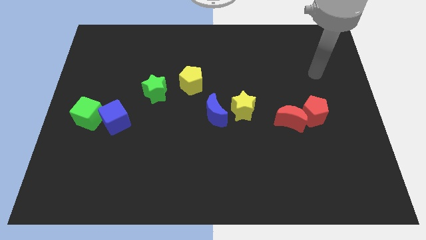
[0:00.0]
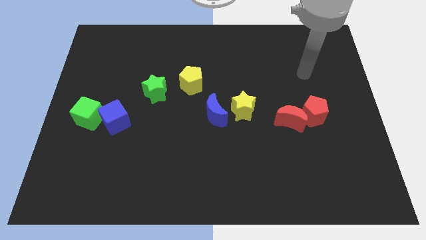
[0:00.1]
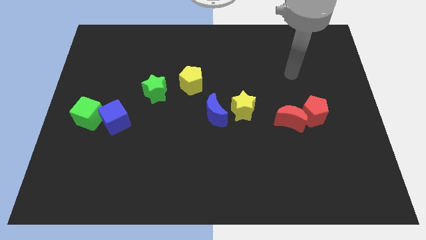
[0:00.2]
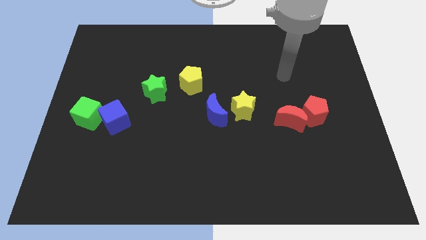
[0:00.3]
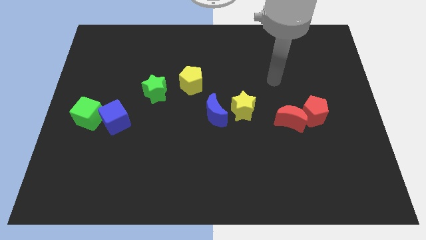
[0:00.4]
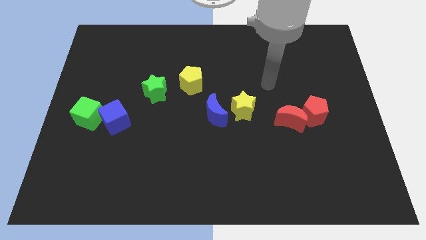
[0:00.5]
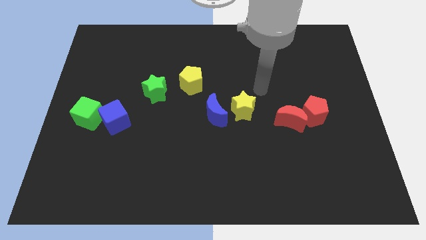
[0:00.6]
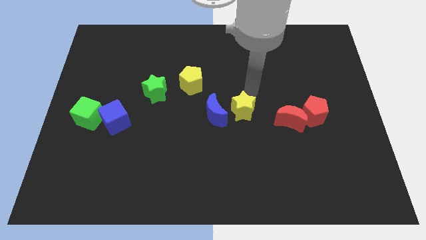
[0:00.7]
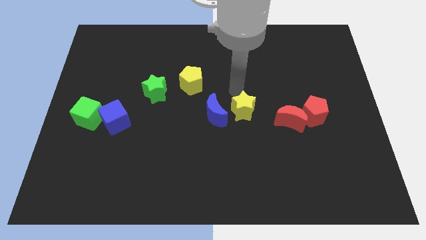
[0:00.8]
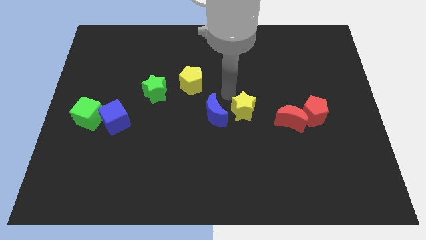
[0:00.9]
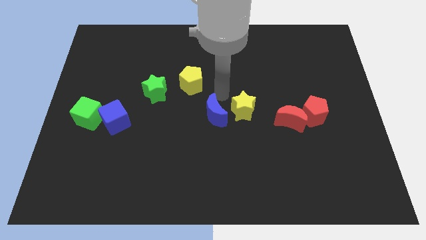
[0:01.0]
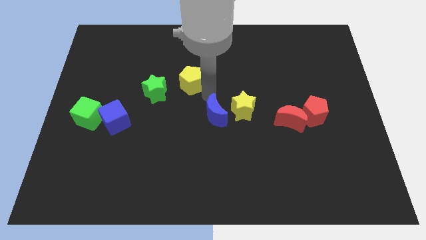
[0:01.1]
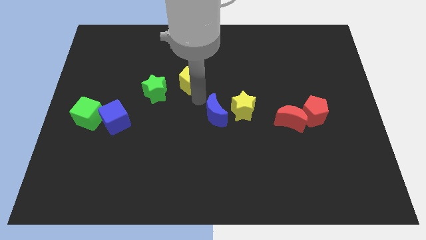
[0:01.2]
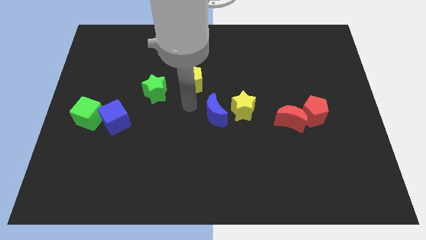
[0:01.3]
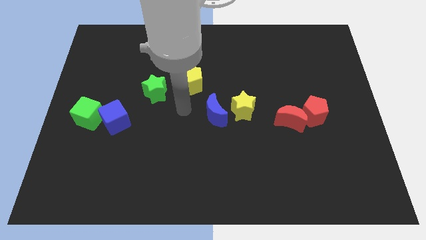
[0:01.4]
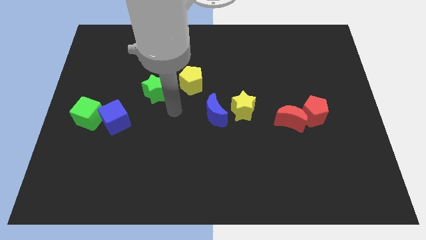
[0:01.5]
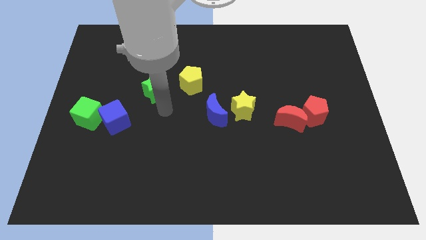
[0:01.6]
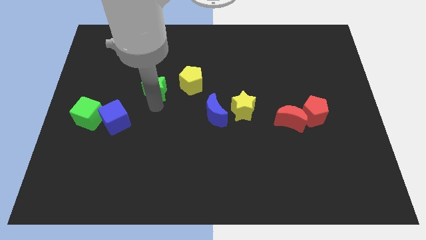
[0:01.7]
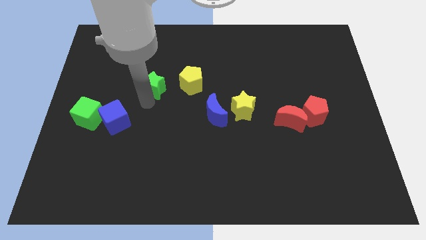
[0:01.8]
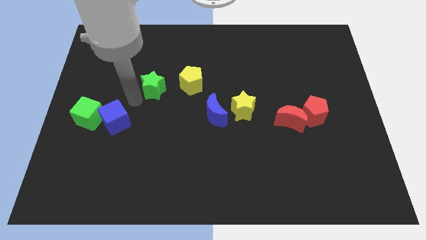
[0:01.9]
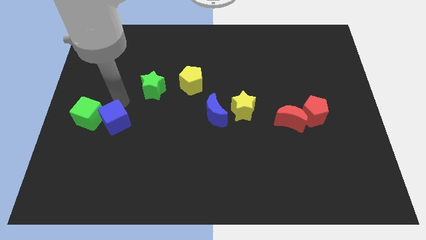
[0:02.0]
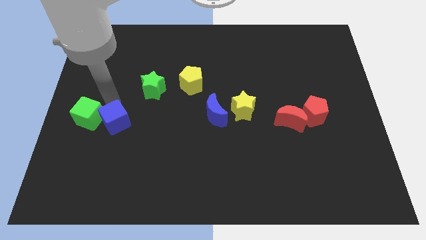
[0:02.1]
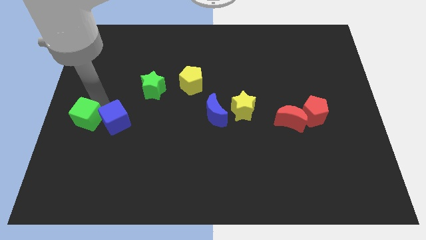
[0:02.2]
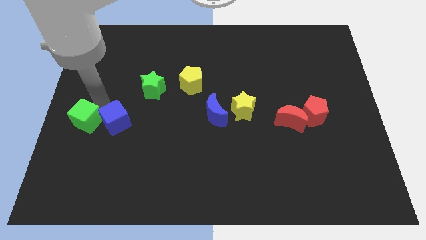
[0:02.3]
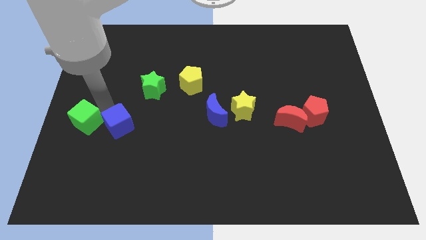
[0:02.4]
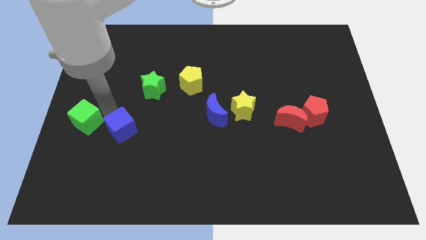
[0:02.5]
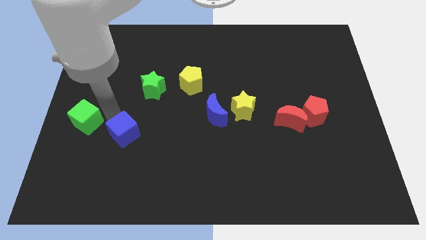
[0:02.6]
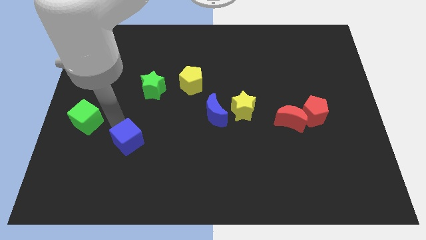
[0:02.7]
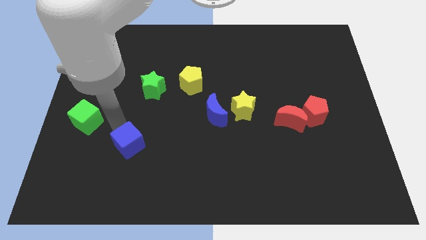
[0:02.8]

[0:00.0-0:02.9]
slightly slide the blue cube diagonally downwards and right

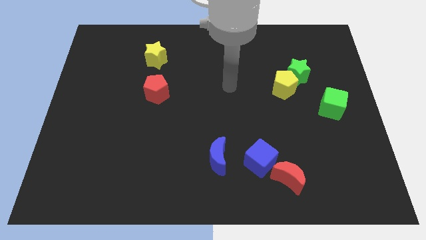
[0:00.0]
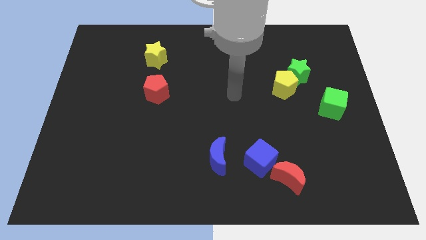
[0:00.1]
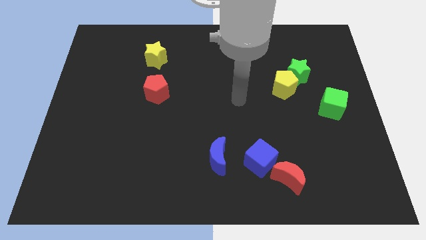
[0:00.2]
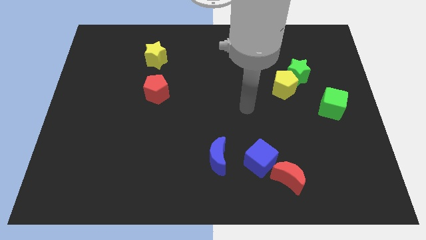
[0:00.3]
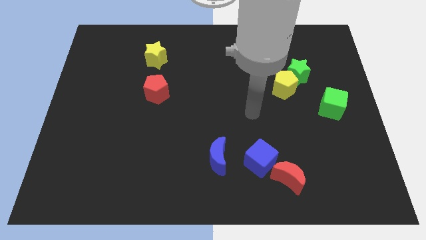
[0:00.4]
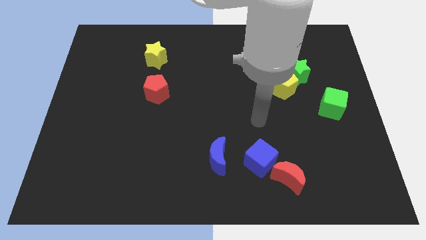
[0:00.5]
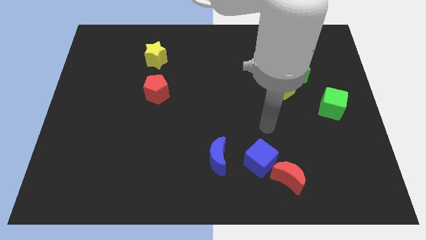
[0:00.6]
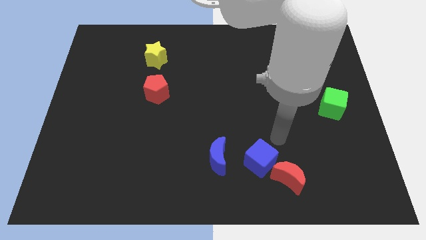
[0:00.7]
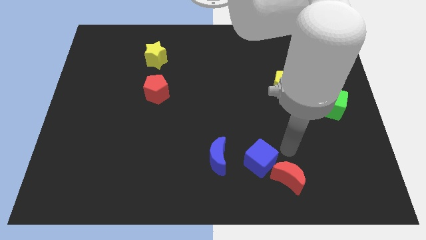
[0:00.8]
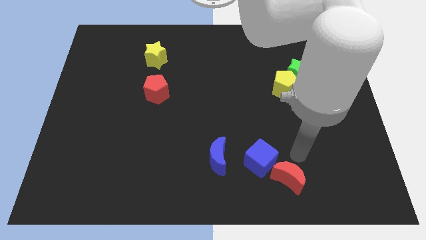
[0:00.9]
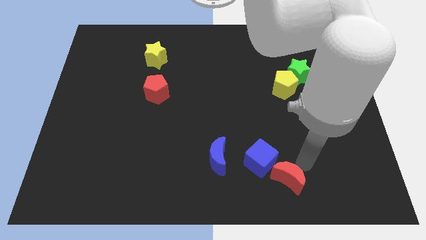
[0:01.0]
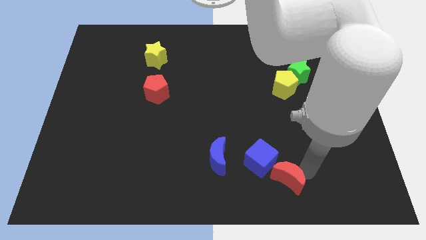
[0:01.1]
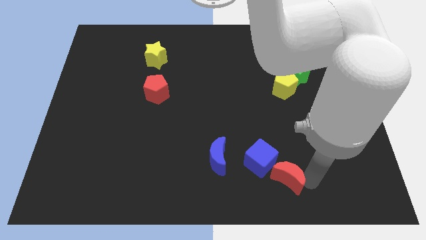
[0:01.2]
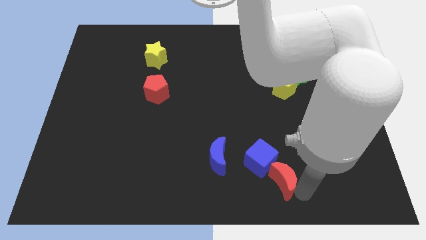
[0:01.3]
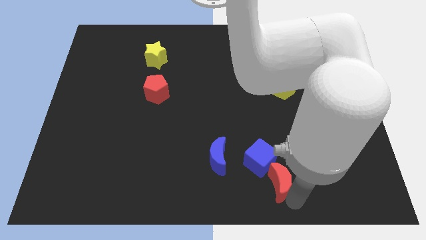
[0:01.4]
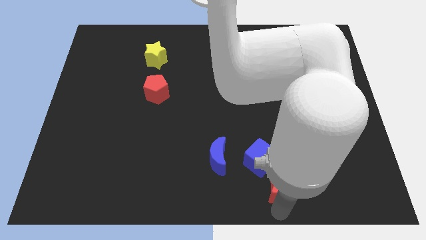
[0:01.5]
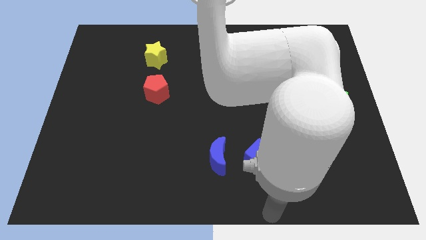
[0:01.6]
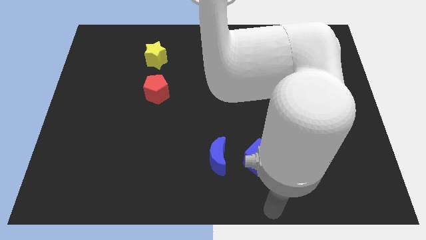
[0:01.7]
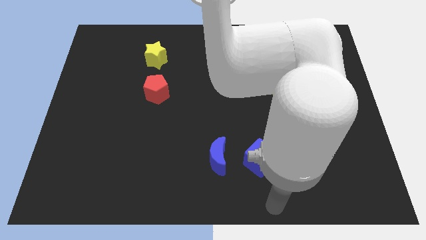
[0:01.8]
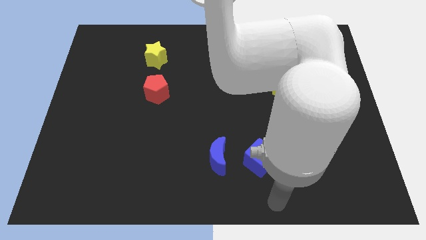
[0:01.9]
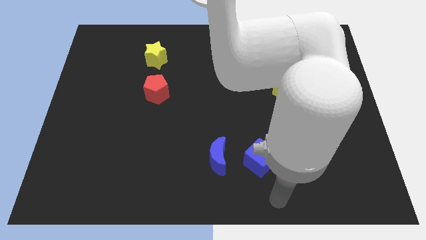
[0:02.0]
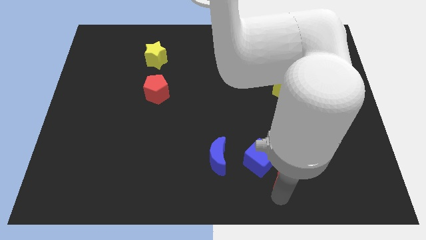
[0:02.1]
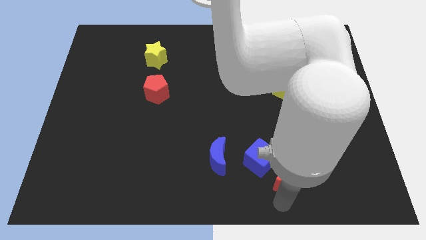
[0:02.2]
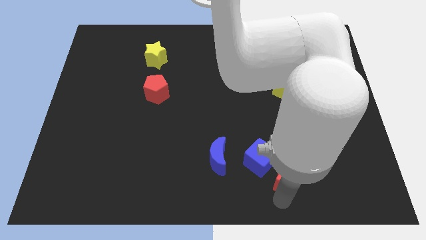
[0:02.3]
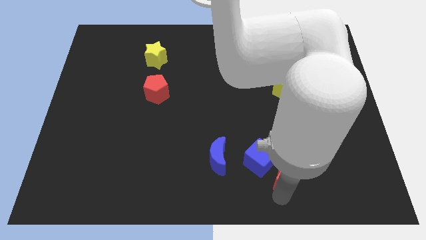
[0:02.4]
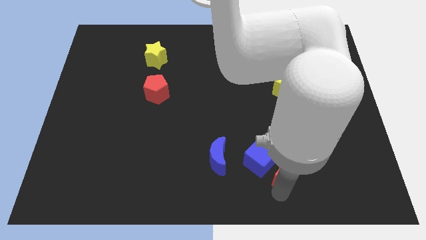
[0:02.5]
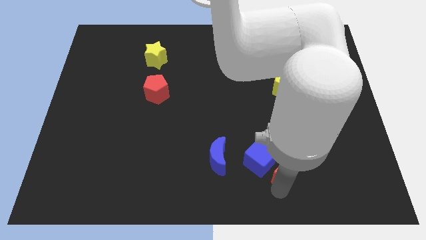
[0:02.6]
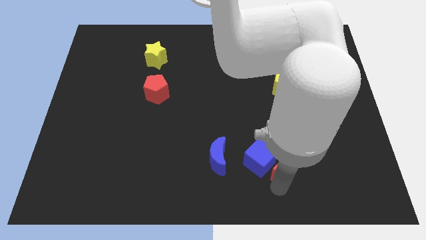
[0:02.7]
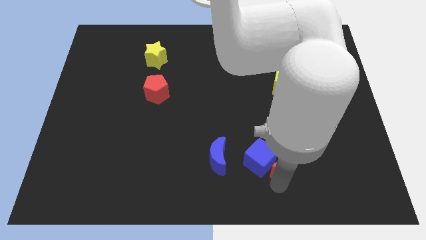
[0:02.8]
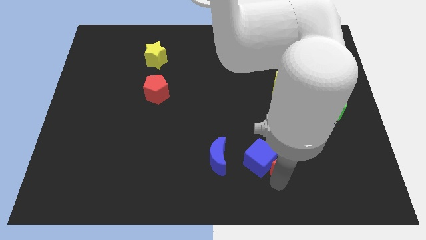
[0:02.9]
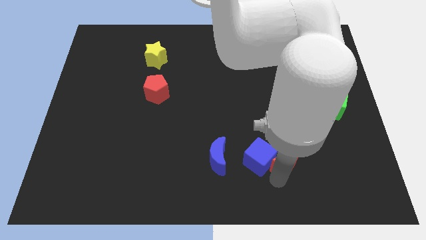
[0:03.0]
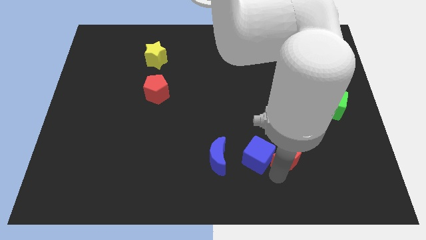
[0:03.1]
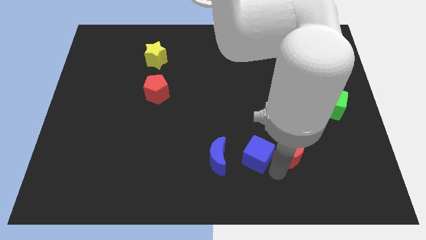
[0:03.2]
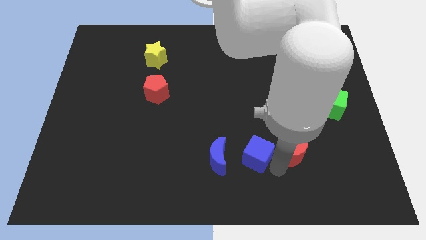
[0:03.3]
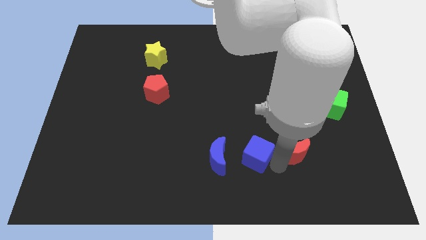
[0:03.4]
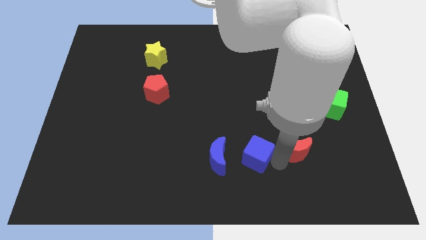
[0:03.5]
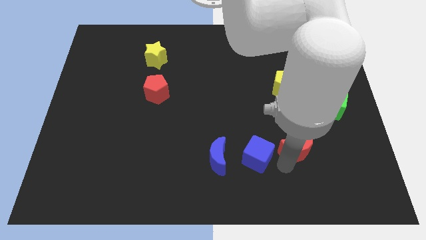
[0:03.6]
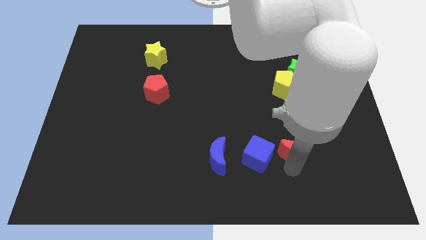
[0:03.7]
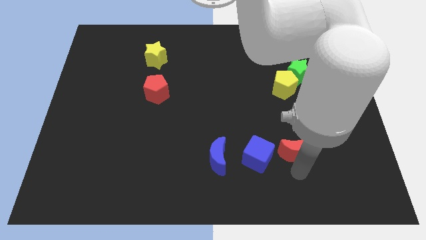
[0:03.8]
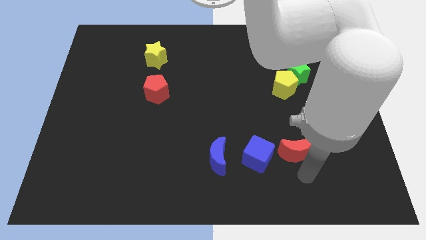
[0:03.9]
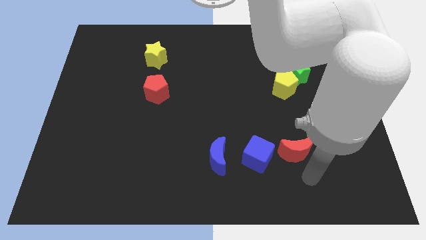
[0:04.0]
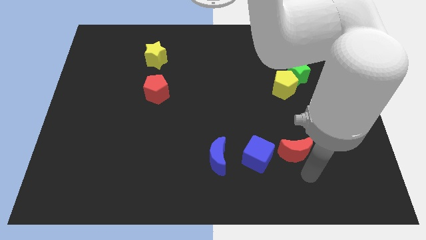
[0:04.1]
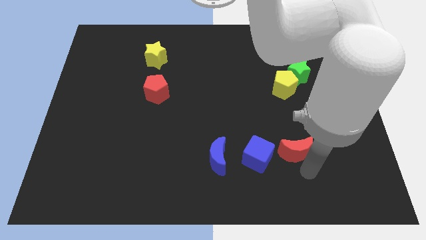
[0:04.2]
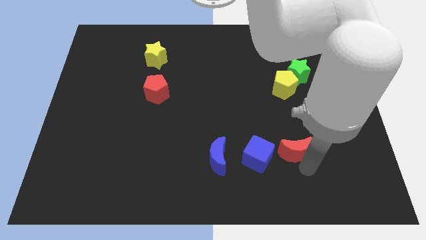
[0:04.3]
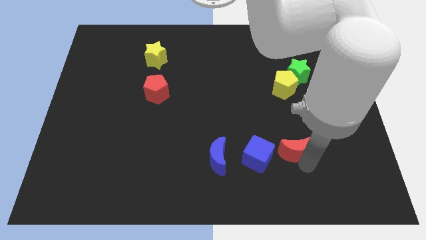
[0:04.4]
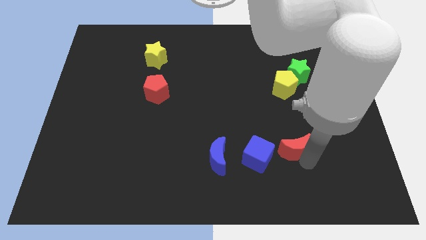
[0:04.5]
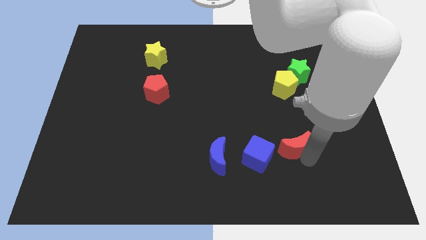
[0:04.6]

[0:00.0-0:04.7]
push the red moon upwards a little
